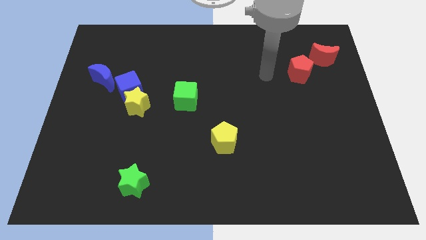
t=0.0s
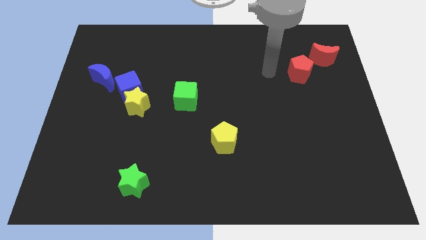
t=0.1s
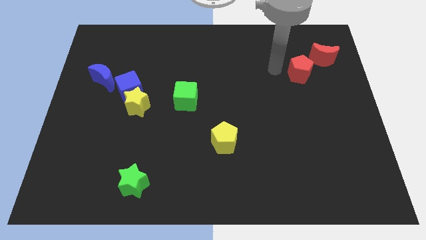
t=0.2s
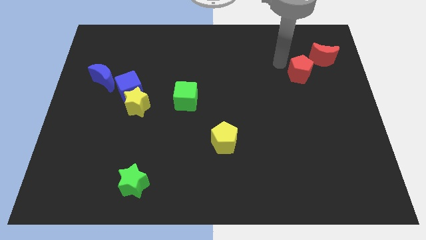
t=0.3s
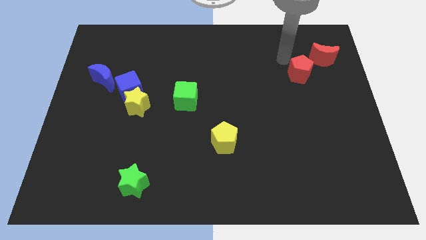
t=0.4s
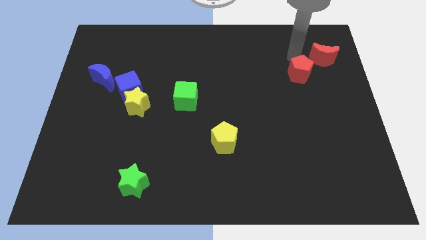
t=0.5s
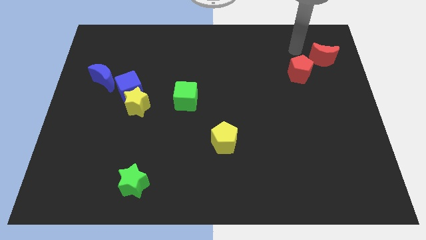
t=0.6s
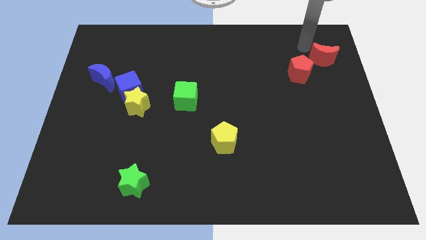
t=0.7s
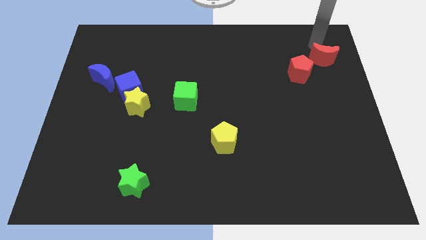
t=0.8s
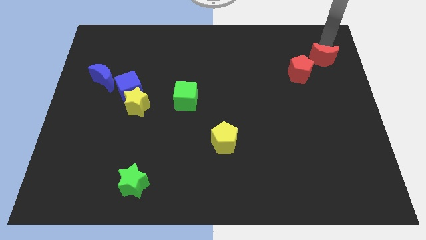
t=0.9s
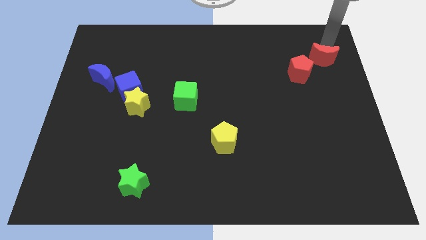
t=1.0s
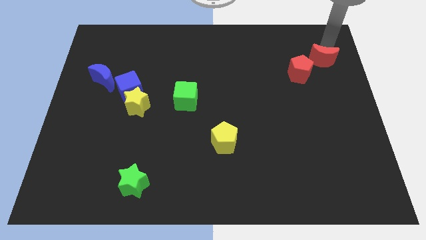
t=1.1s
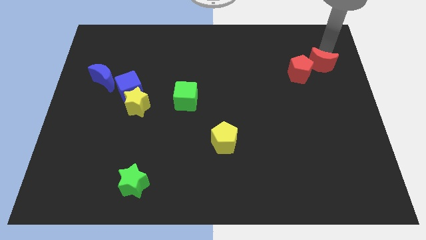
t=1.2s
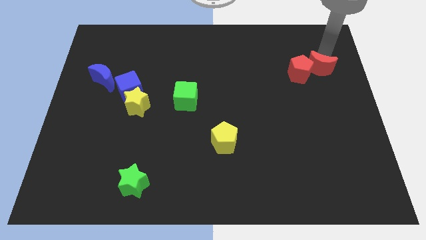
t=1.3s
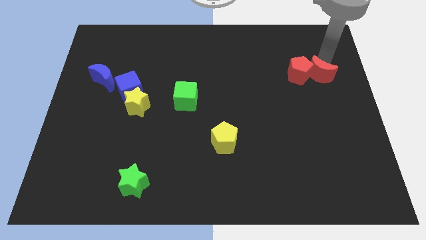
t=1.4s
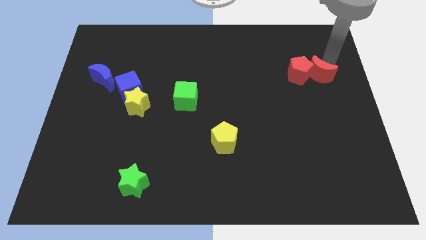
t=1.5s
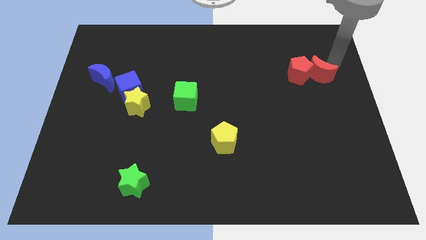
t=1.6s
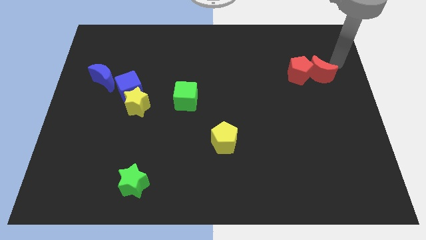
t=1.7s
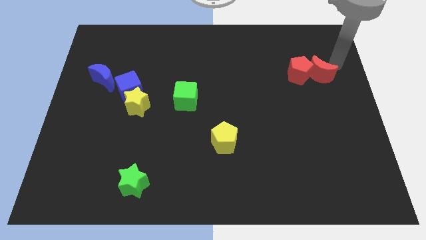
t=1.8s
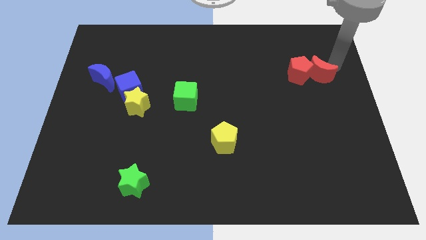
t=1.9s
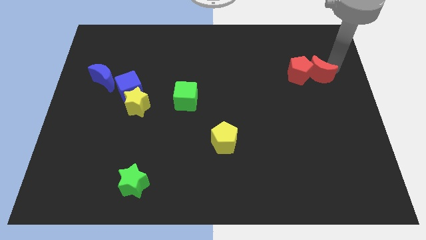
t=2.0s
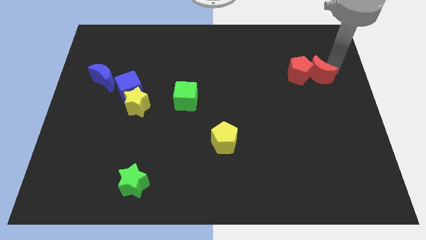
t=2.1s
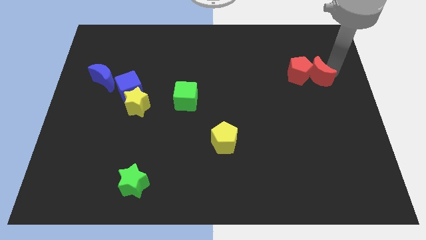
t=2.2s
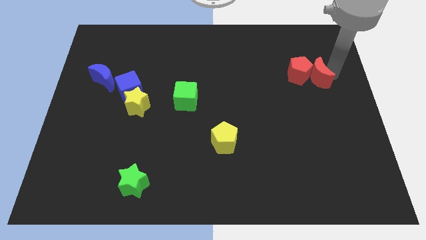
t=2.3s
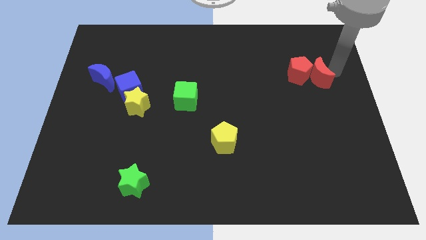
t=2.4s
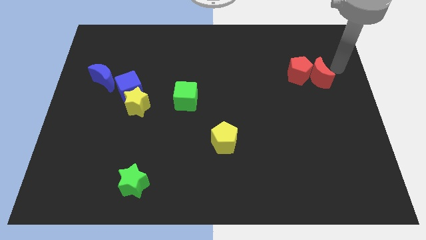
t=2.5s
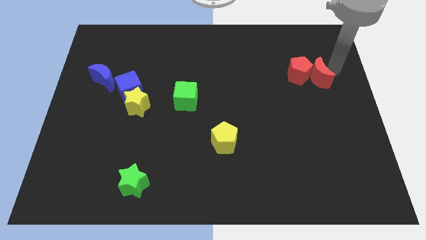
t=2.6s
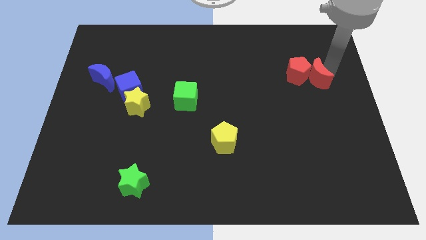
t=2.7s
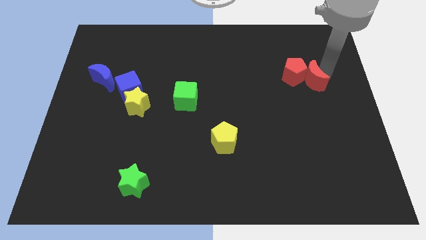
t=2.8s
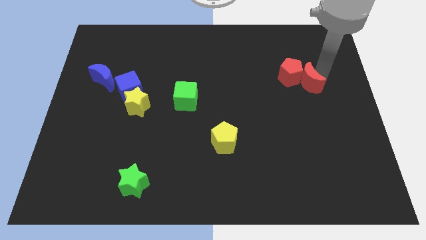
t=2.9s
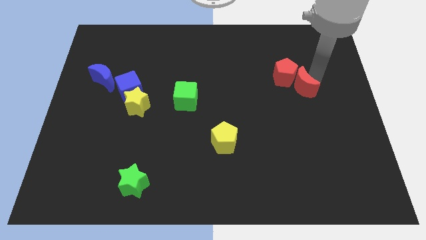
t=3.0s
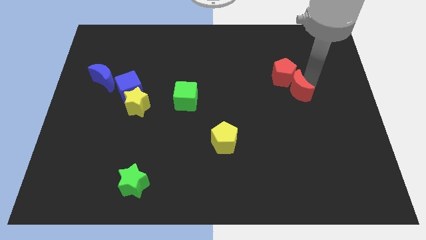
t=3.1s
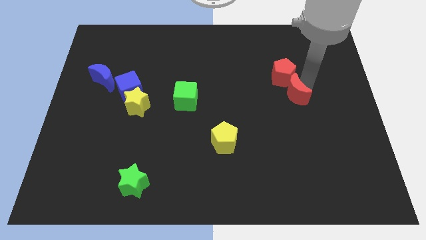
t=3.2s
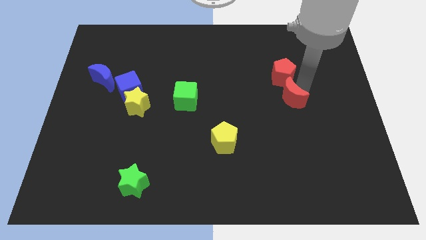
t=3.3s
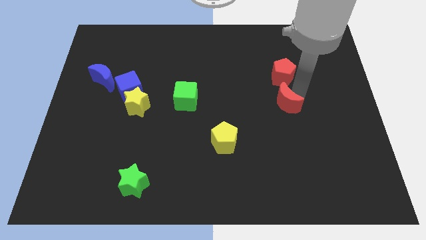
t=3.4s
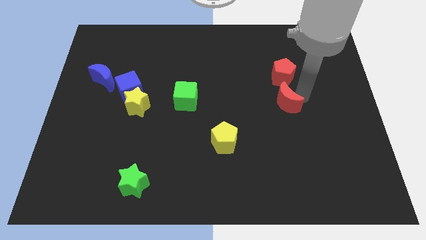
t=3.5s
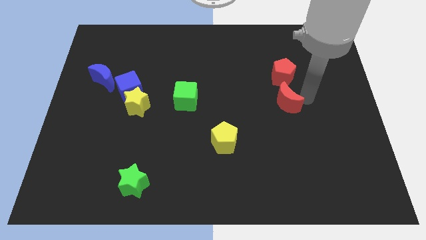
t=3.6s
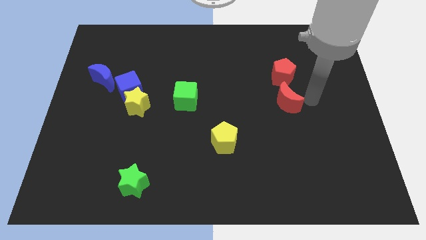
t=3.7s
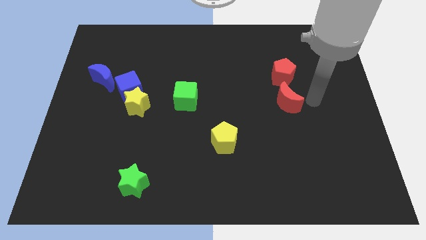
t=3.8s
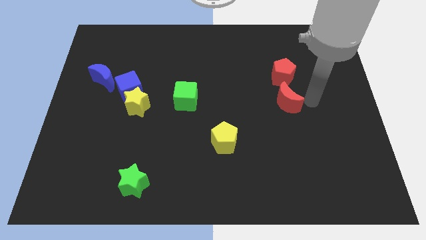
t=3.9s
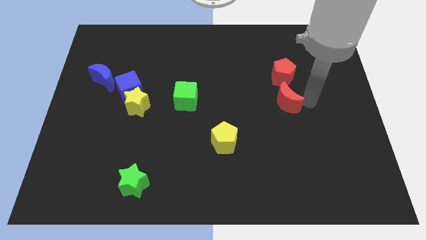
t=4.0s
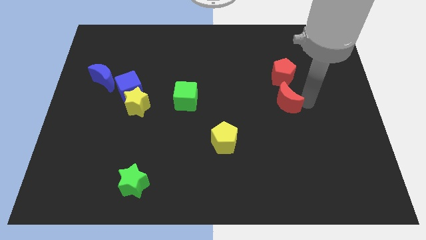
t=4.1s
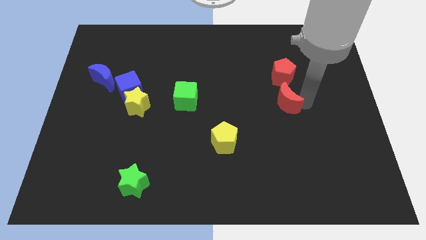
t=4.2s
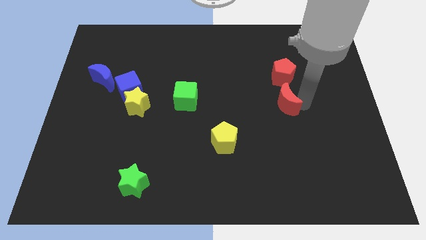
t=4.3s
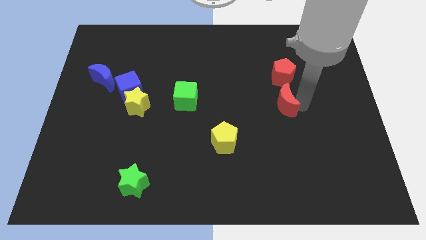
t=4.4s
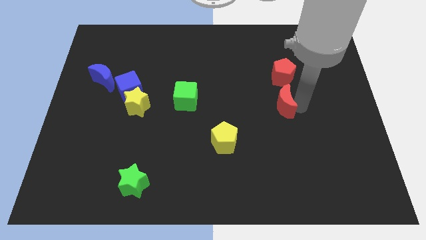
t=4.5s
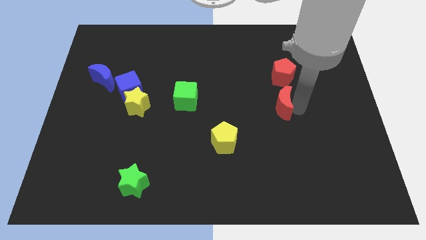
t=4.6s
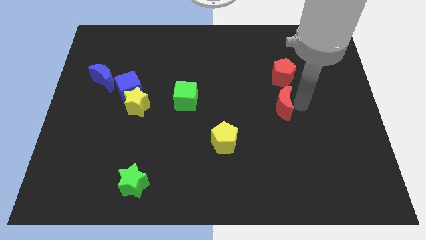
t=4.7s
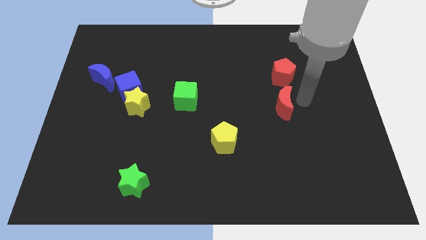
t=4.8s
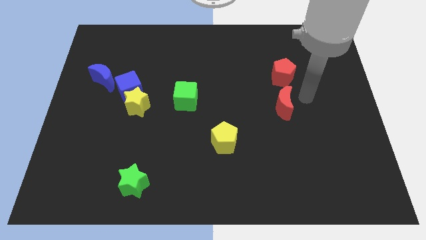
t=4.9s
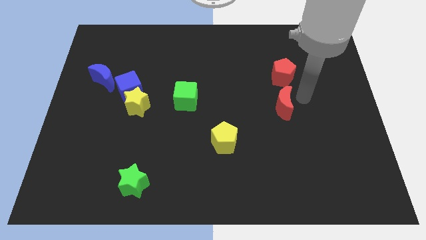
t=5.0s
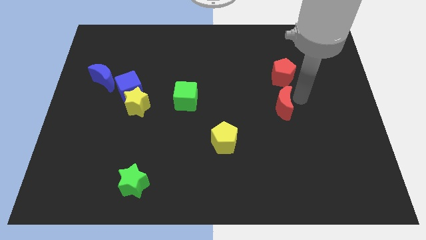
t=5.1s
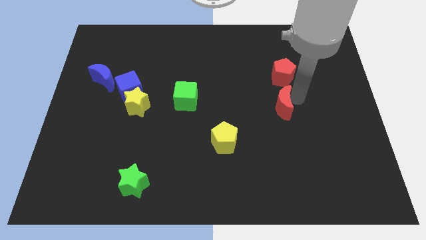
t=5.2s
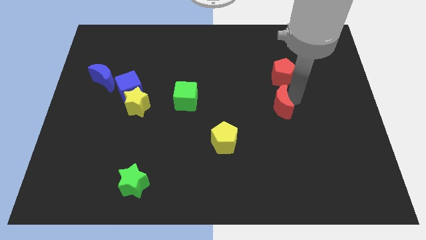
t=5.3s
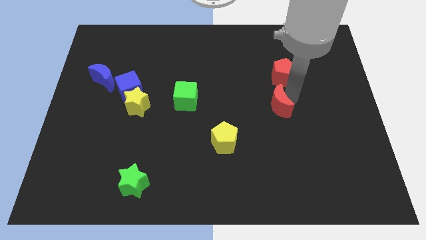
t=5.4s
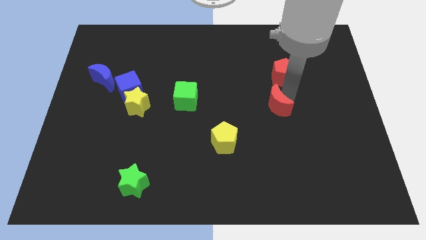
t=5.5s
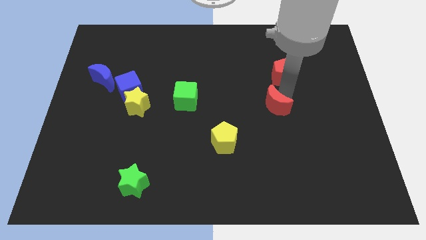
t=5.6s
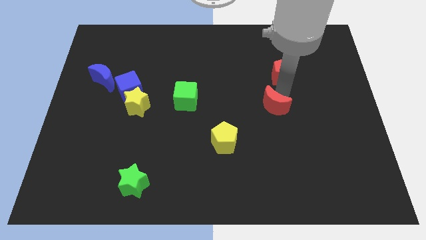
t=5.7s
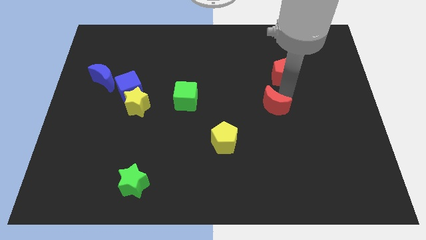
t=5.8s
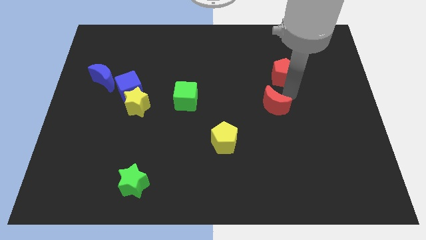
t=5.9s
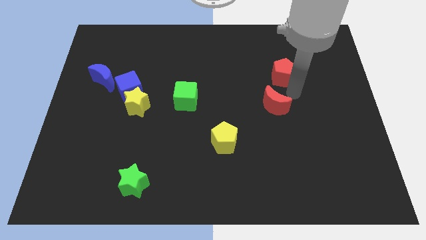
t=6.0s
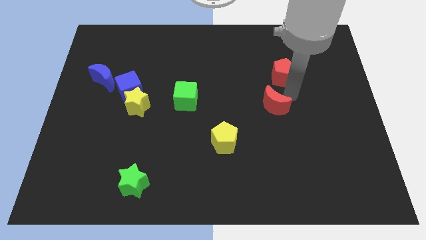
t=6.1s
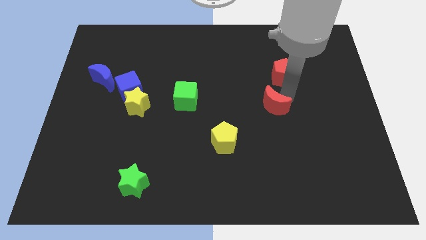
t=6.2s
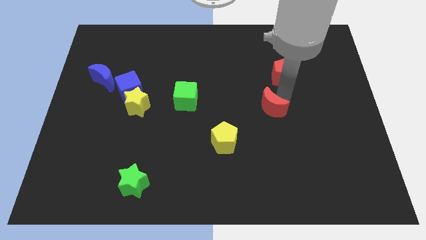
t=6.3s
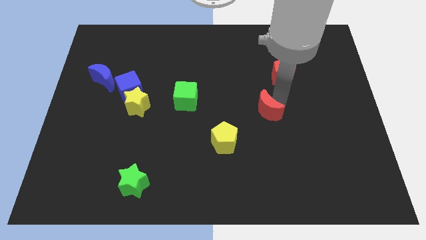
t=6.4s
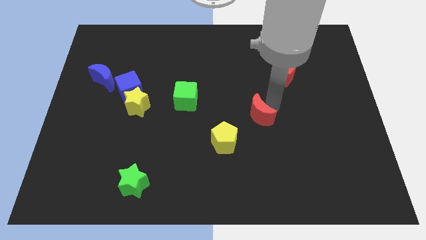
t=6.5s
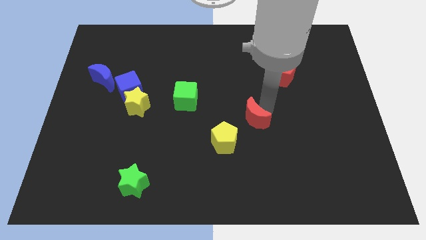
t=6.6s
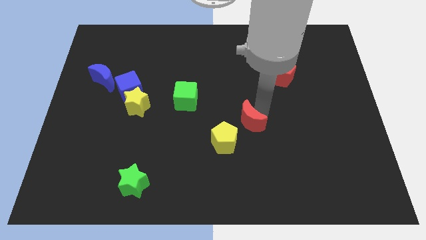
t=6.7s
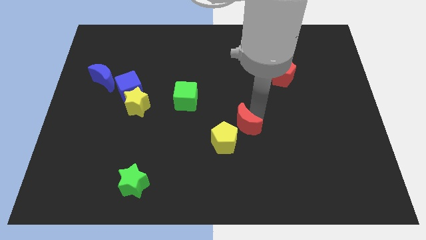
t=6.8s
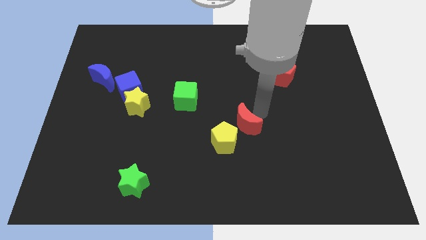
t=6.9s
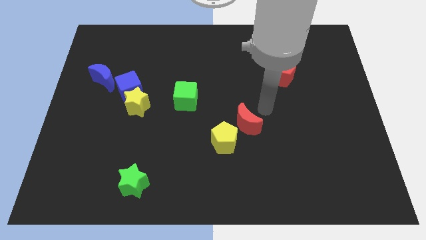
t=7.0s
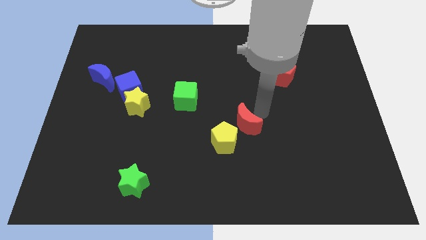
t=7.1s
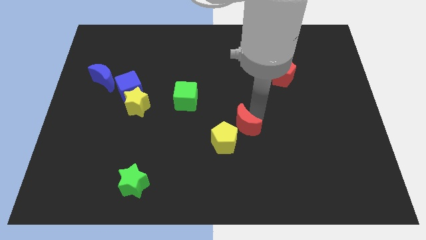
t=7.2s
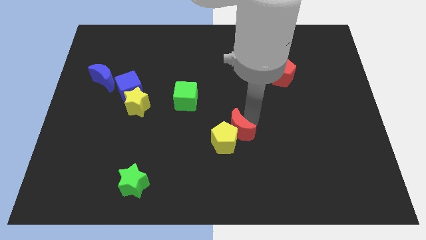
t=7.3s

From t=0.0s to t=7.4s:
push the red moon next to the yellow pentagon

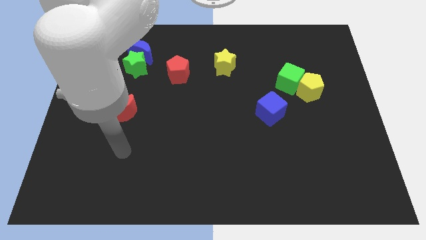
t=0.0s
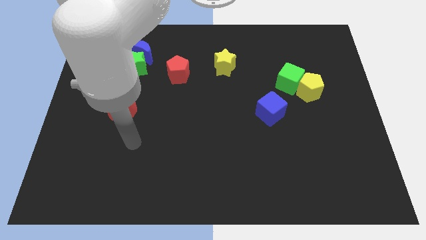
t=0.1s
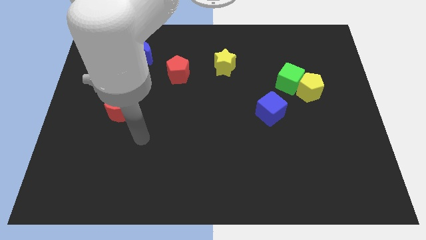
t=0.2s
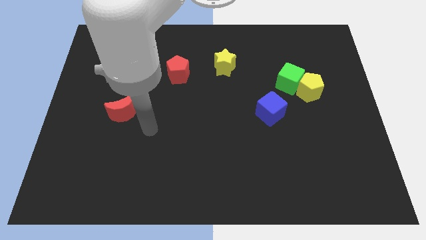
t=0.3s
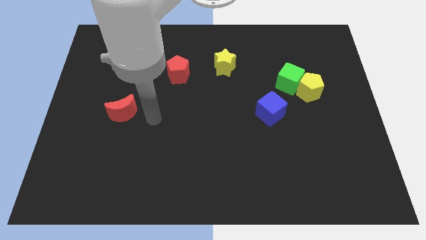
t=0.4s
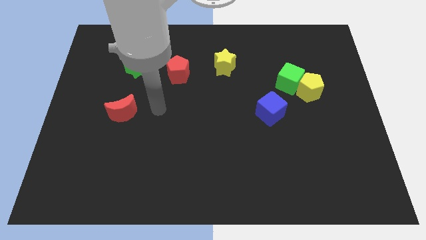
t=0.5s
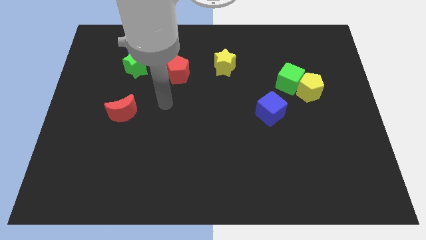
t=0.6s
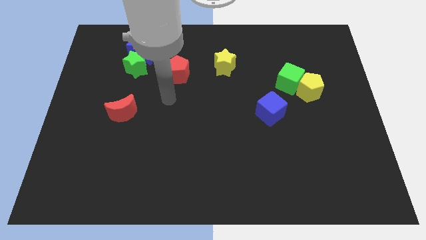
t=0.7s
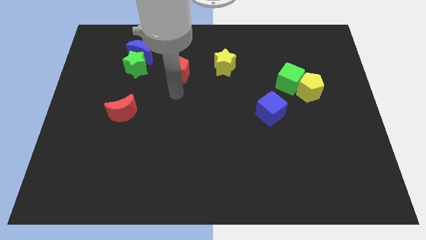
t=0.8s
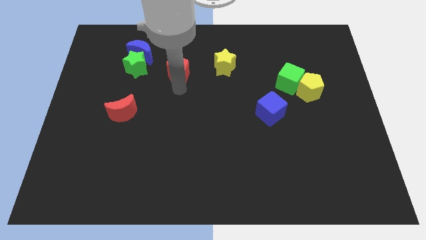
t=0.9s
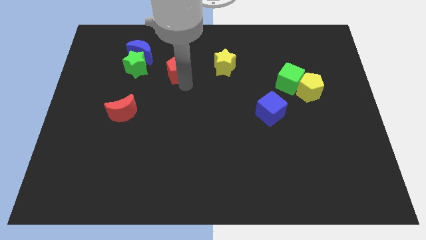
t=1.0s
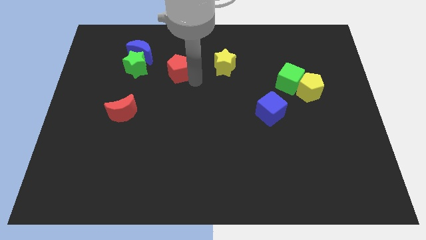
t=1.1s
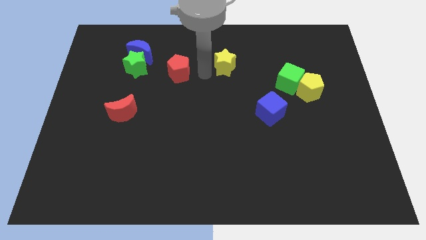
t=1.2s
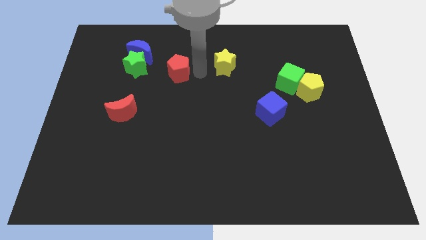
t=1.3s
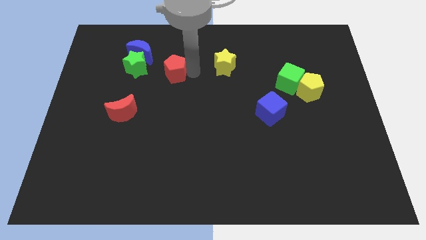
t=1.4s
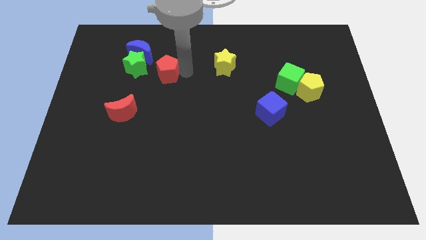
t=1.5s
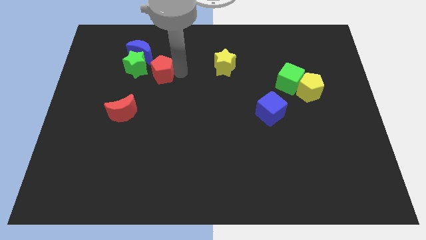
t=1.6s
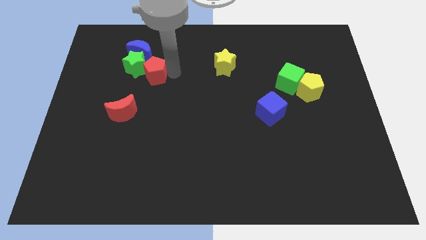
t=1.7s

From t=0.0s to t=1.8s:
put the red pentagon towards the green star
